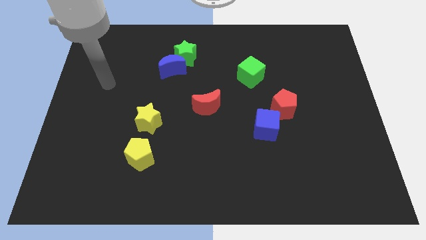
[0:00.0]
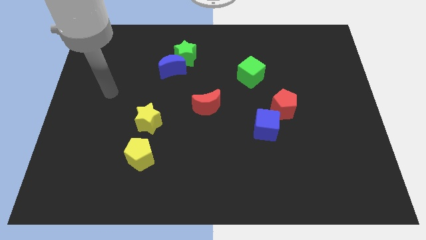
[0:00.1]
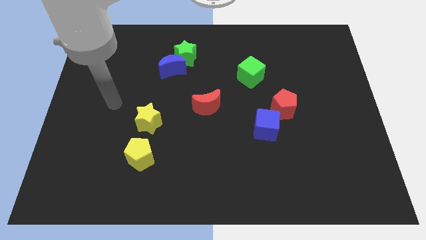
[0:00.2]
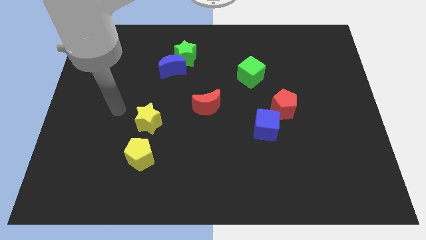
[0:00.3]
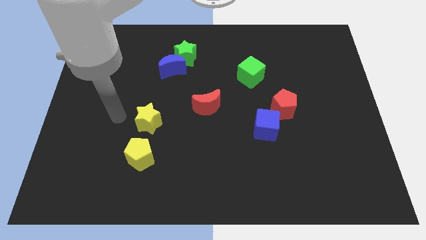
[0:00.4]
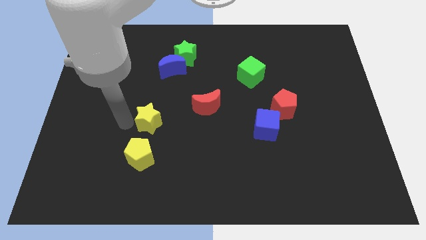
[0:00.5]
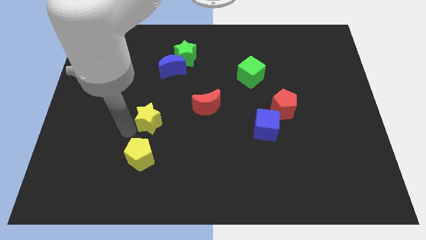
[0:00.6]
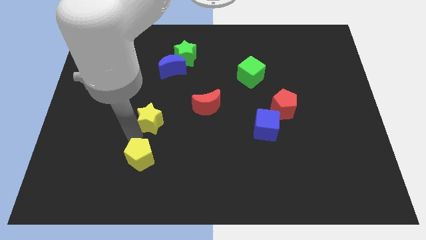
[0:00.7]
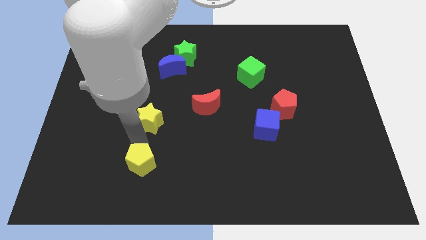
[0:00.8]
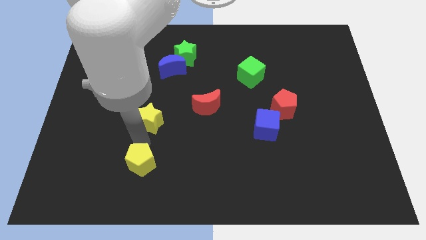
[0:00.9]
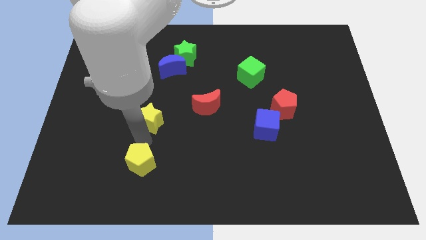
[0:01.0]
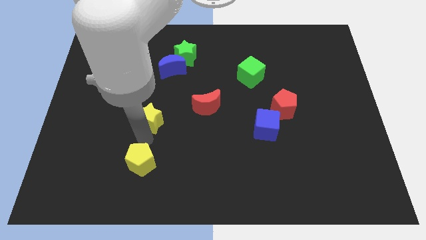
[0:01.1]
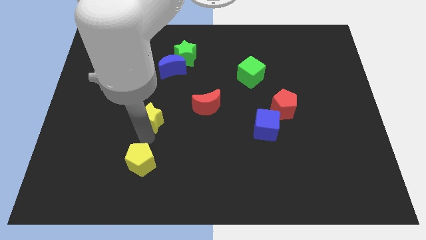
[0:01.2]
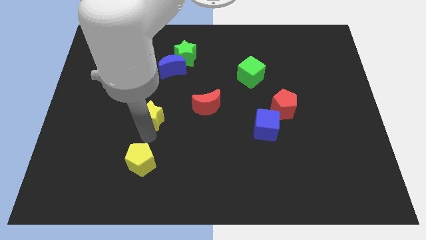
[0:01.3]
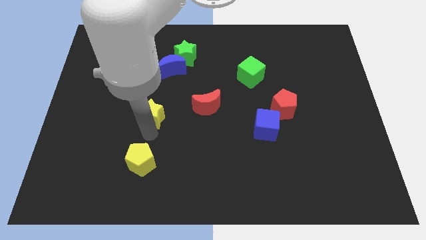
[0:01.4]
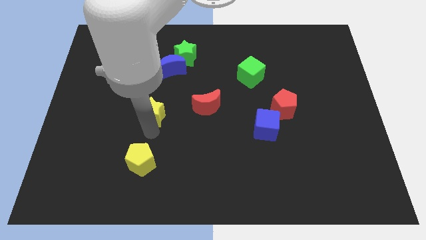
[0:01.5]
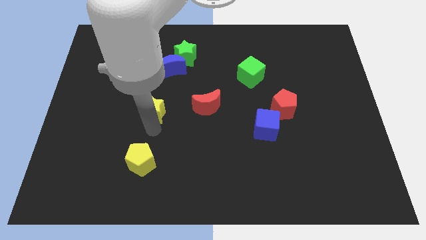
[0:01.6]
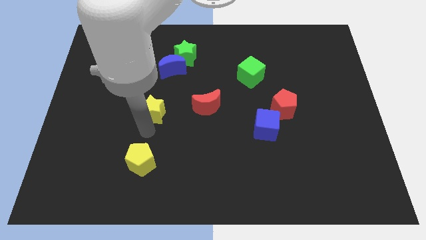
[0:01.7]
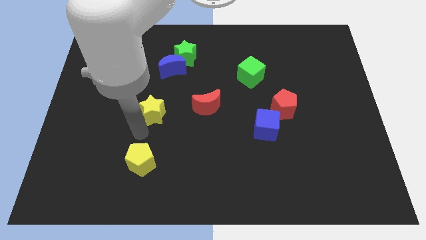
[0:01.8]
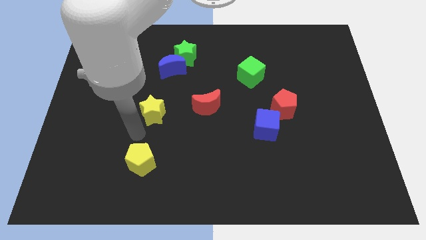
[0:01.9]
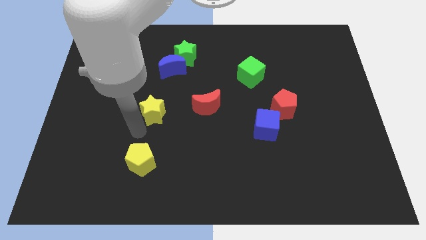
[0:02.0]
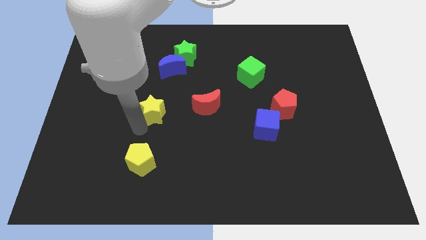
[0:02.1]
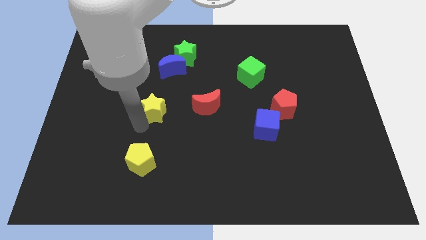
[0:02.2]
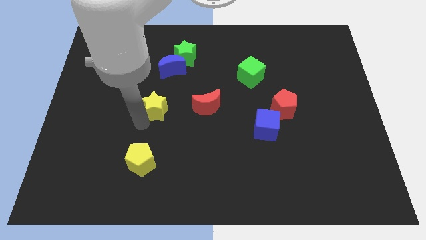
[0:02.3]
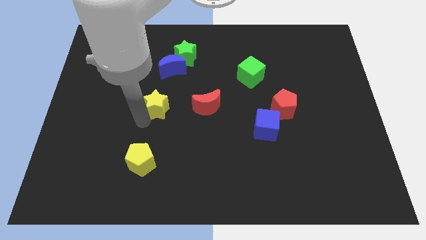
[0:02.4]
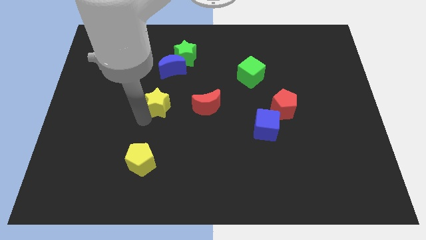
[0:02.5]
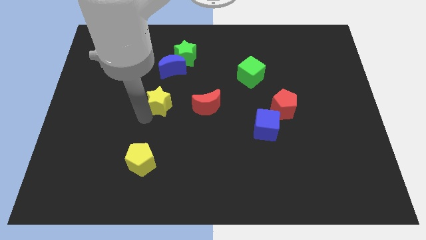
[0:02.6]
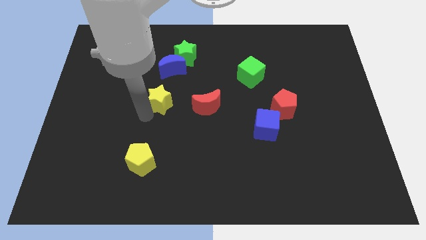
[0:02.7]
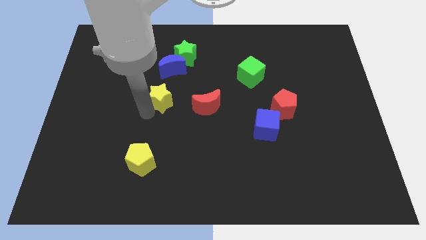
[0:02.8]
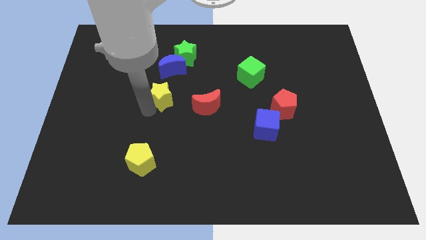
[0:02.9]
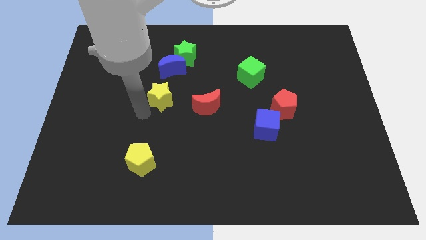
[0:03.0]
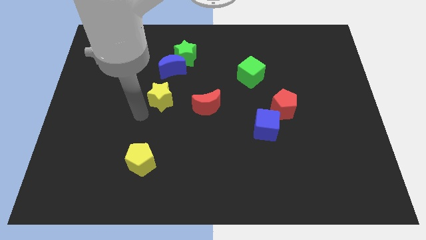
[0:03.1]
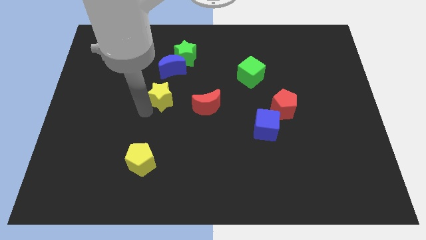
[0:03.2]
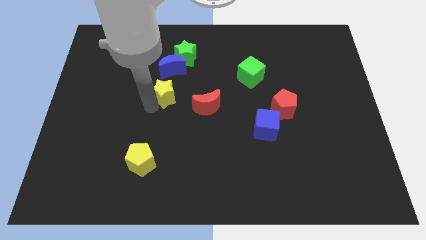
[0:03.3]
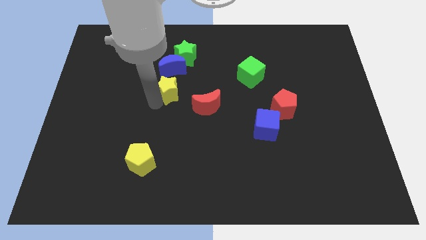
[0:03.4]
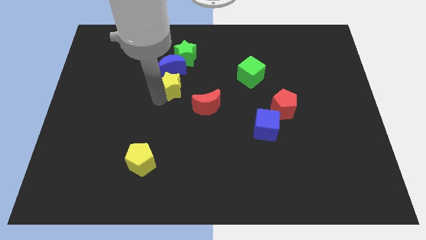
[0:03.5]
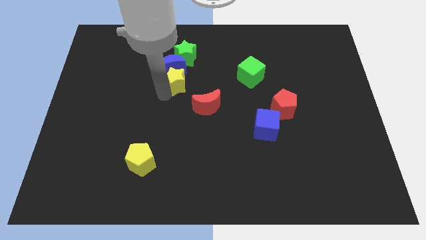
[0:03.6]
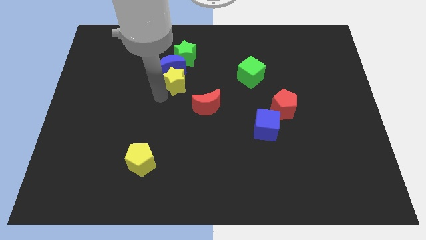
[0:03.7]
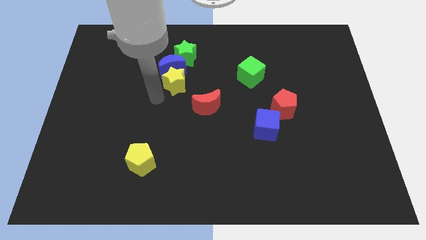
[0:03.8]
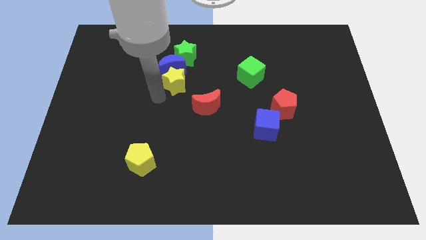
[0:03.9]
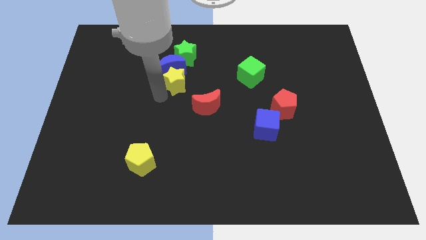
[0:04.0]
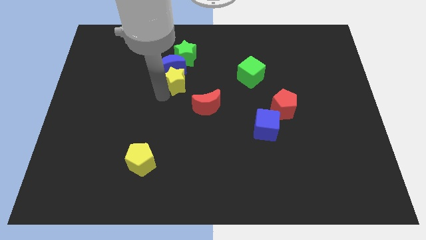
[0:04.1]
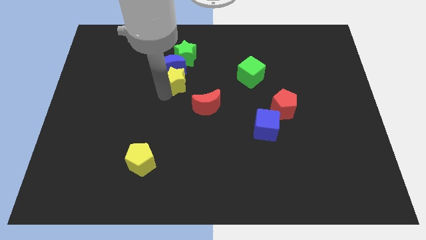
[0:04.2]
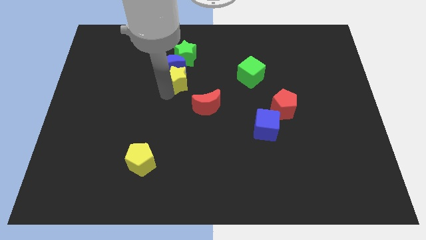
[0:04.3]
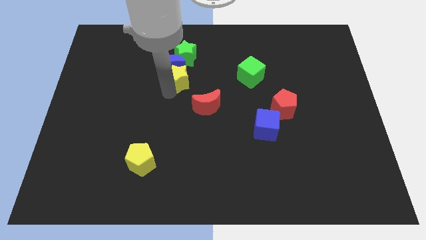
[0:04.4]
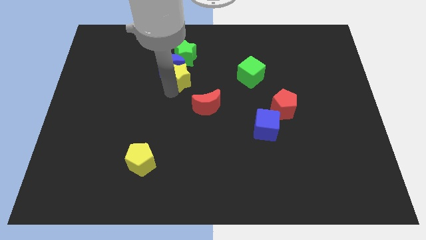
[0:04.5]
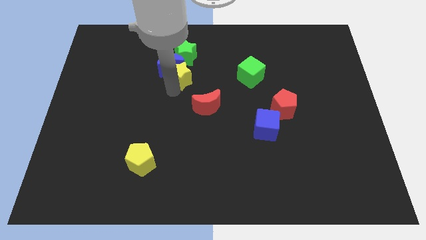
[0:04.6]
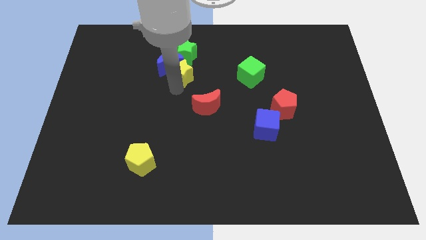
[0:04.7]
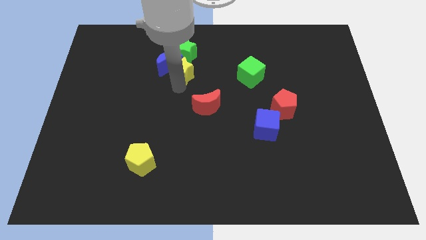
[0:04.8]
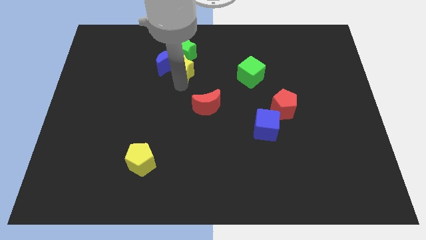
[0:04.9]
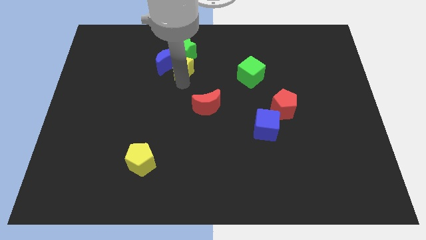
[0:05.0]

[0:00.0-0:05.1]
push the yellow star to the green star

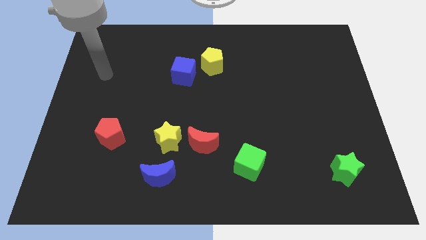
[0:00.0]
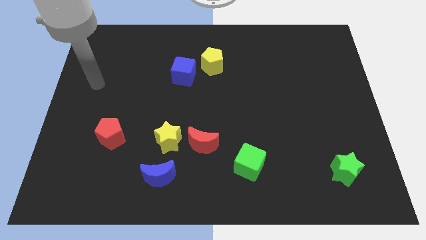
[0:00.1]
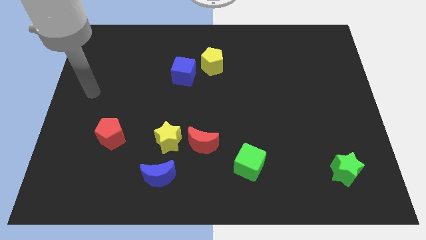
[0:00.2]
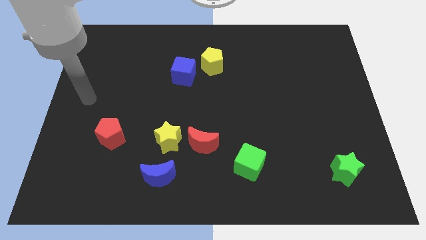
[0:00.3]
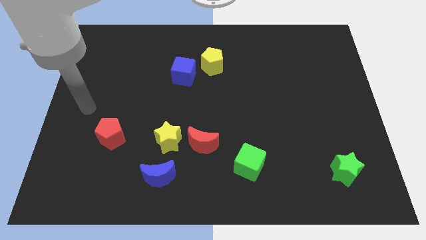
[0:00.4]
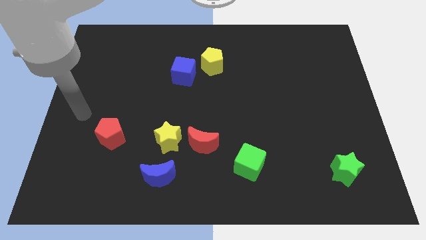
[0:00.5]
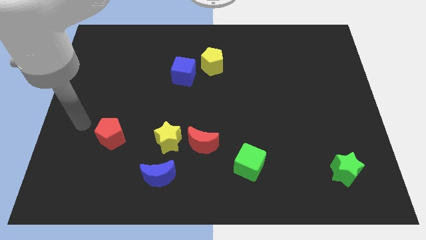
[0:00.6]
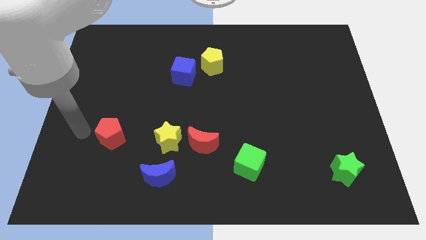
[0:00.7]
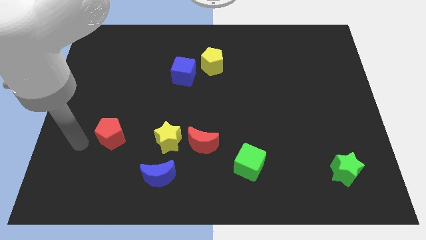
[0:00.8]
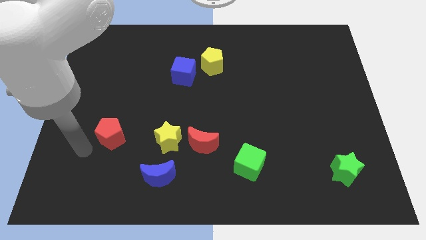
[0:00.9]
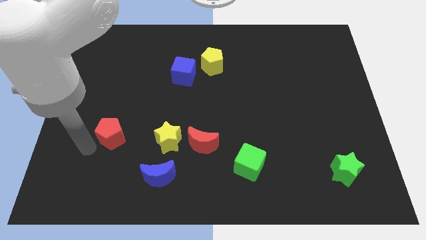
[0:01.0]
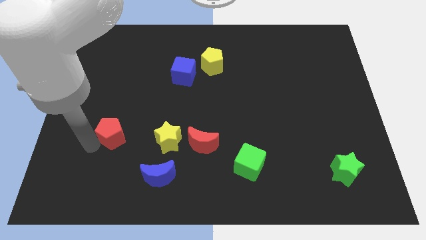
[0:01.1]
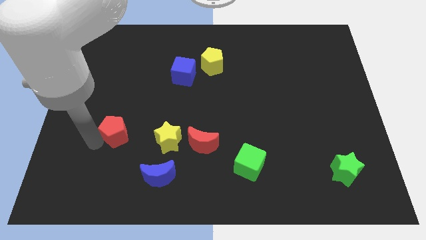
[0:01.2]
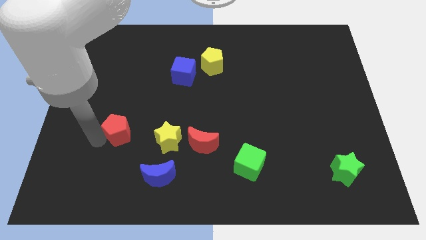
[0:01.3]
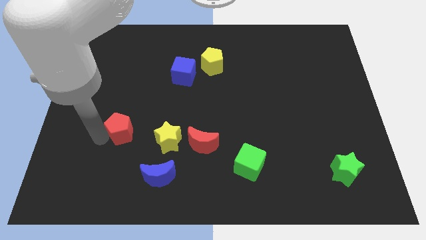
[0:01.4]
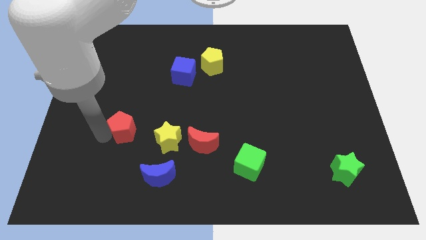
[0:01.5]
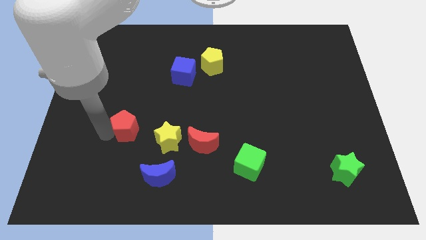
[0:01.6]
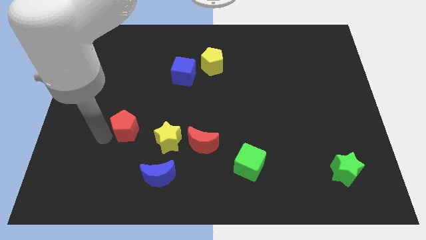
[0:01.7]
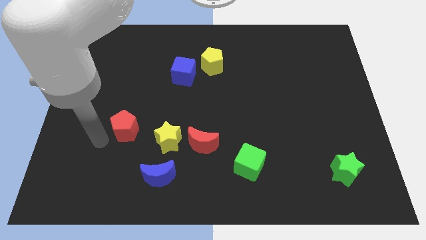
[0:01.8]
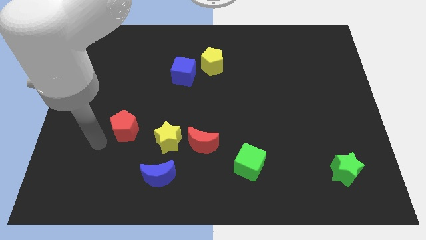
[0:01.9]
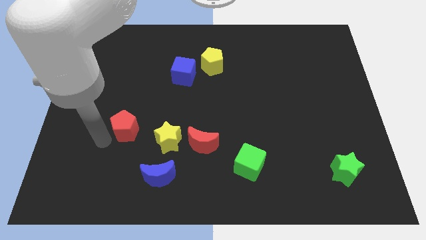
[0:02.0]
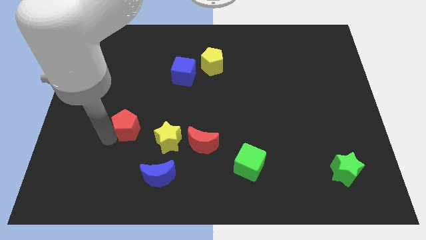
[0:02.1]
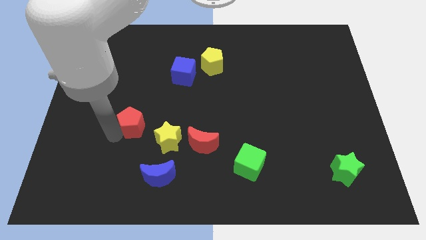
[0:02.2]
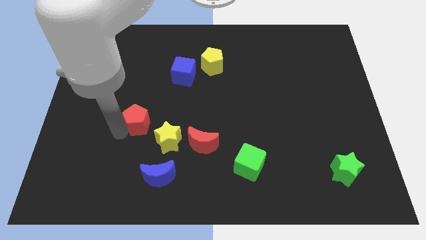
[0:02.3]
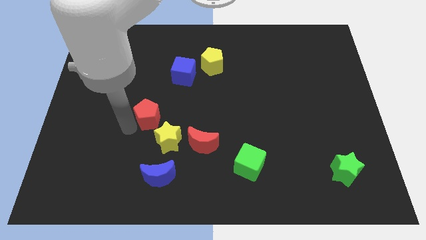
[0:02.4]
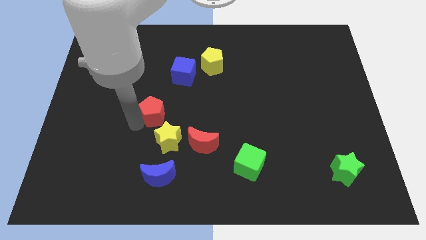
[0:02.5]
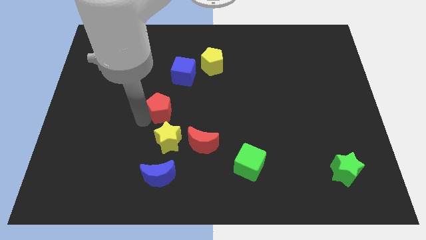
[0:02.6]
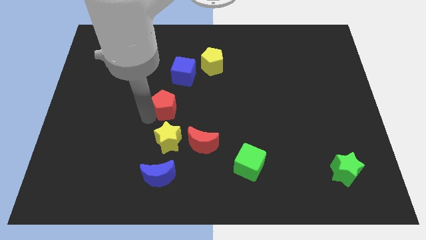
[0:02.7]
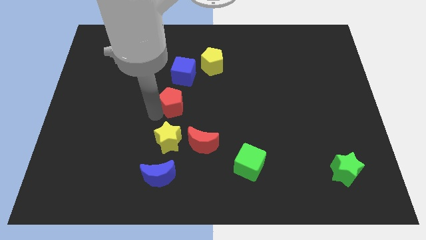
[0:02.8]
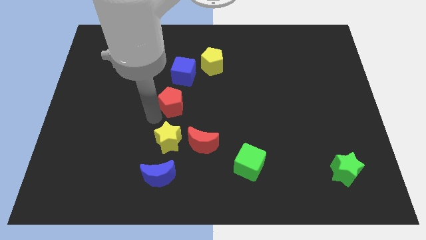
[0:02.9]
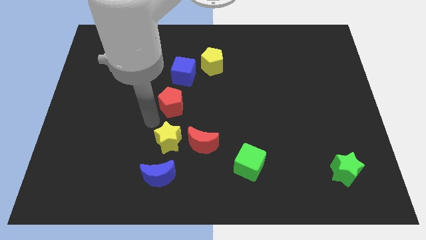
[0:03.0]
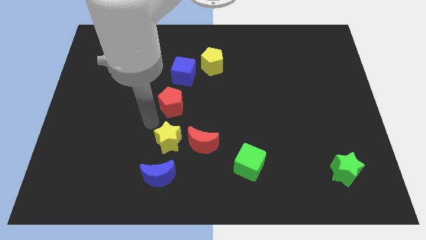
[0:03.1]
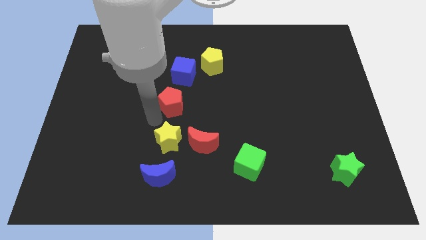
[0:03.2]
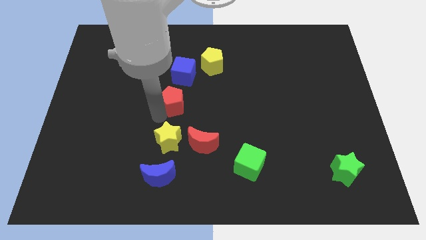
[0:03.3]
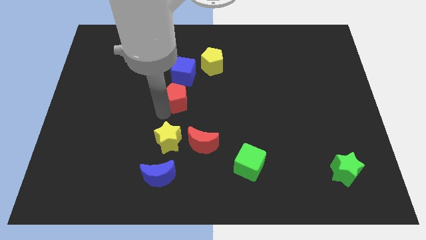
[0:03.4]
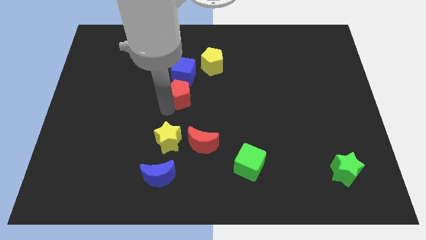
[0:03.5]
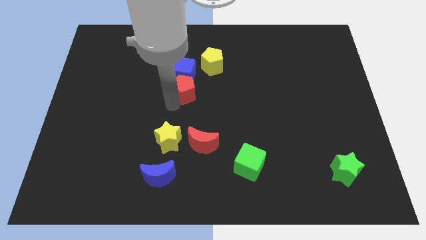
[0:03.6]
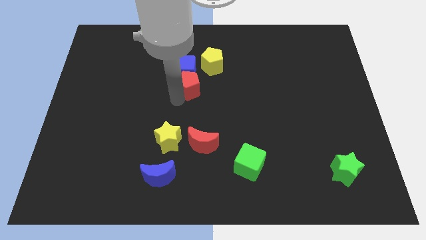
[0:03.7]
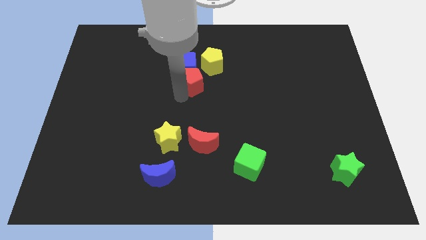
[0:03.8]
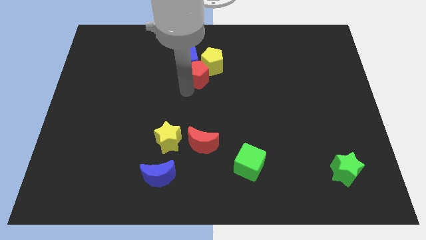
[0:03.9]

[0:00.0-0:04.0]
push the red pentagon close to the yellow pentagon
